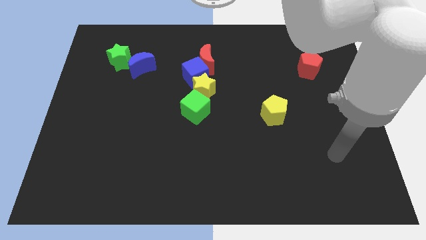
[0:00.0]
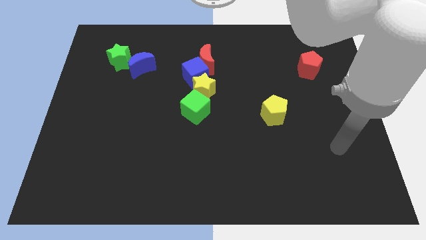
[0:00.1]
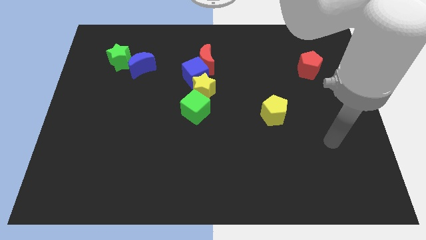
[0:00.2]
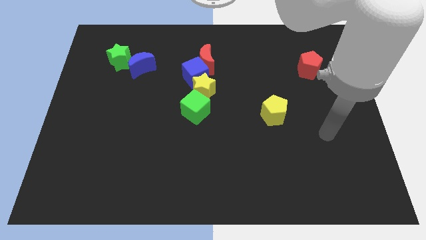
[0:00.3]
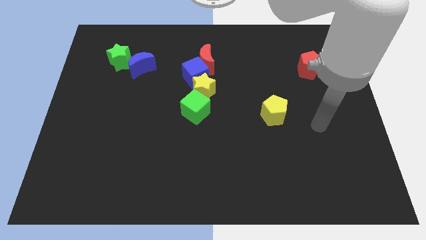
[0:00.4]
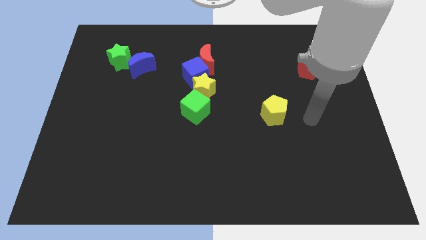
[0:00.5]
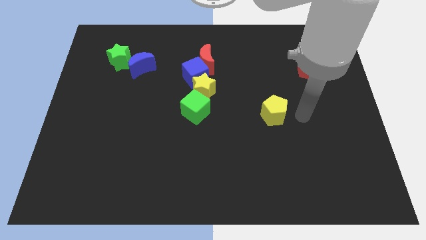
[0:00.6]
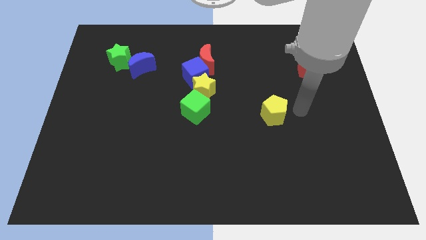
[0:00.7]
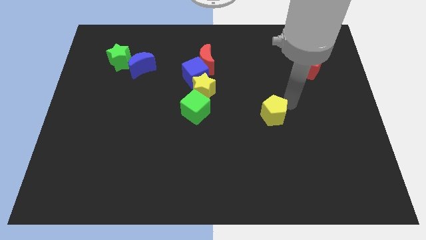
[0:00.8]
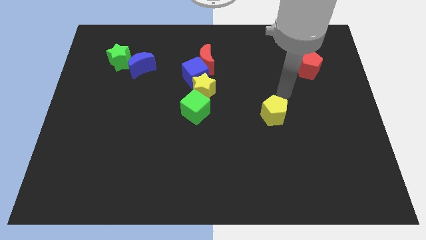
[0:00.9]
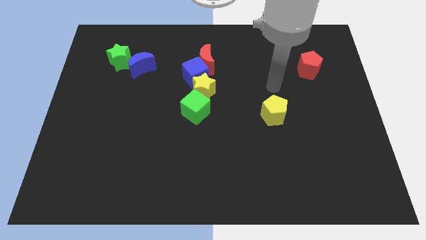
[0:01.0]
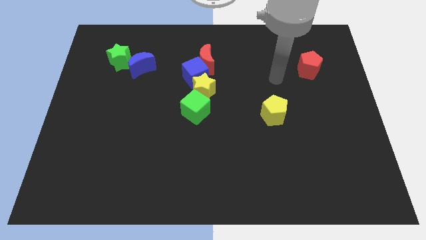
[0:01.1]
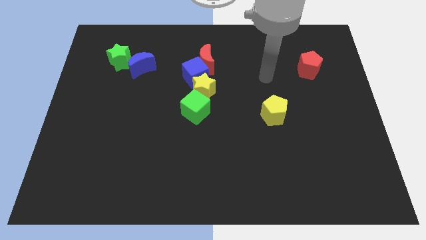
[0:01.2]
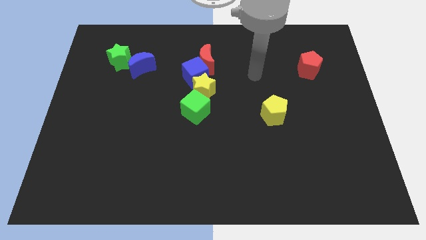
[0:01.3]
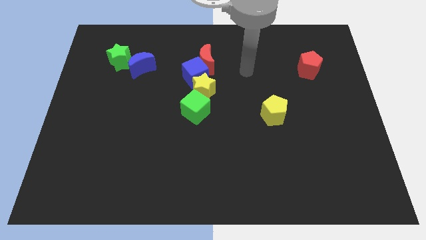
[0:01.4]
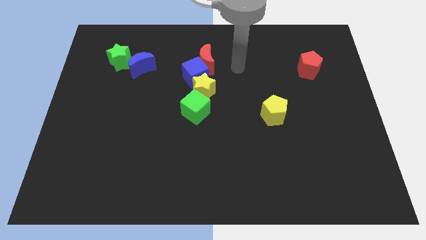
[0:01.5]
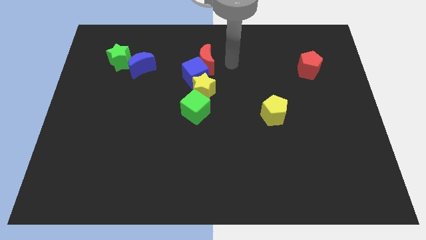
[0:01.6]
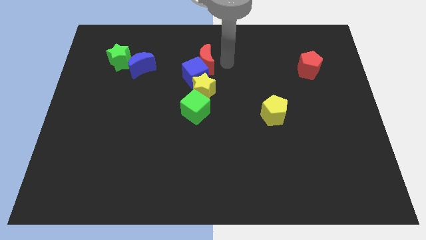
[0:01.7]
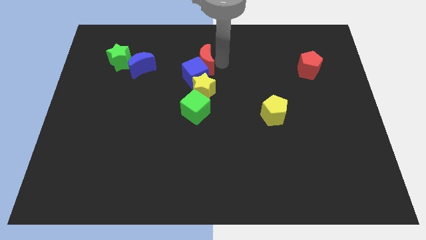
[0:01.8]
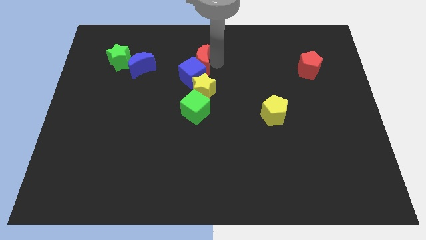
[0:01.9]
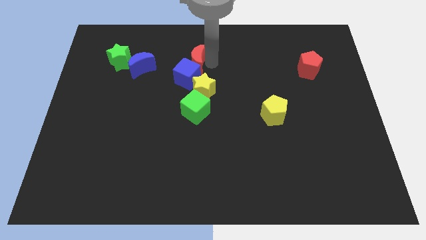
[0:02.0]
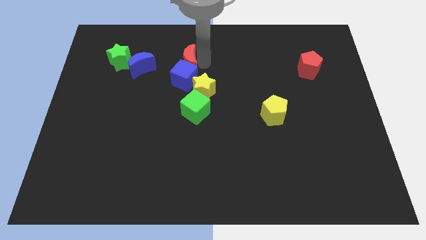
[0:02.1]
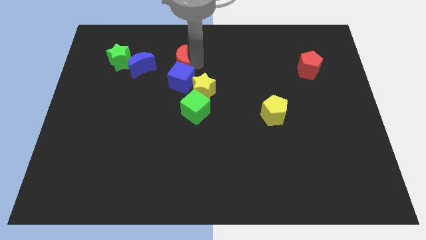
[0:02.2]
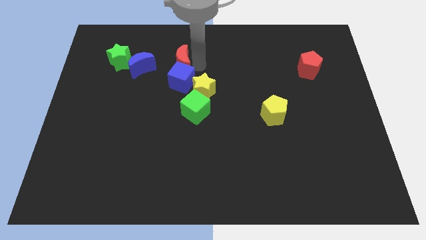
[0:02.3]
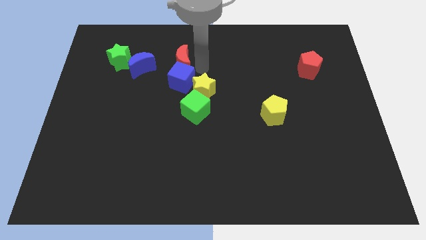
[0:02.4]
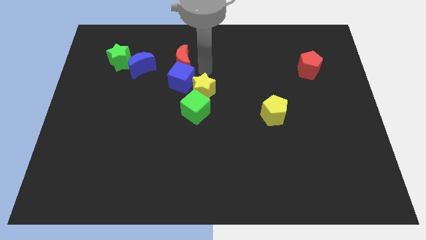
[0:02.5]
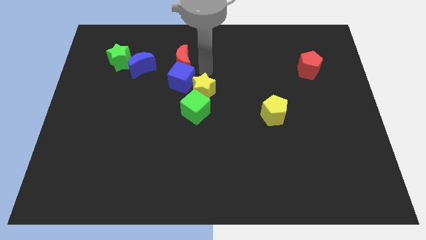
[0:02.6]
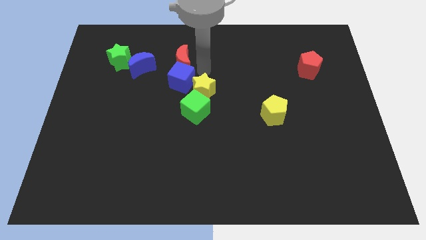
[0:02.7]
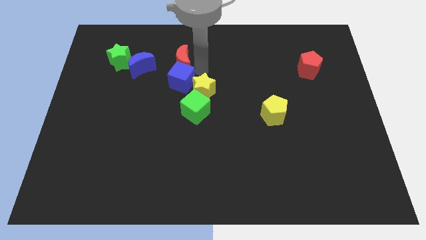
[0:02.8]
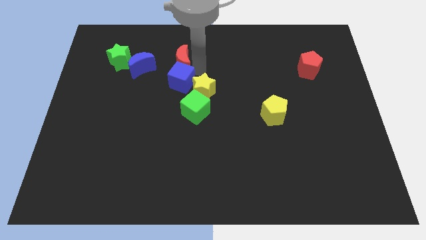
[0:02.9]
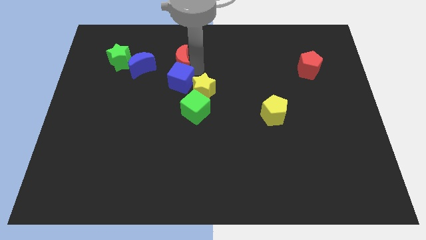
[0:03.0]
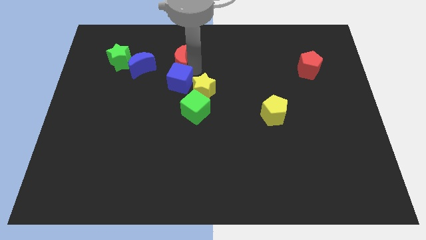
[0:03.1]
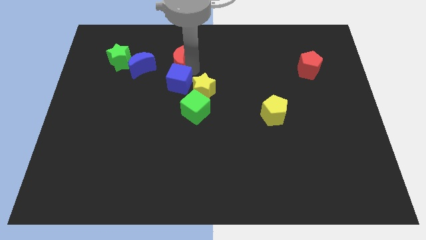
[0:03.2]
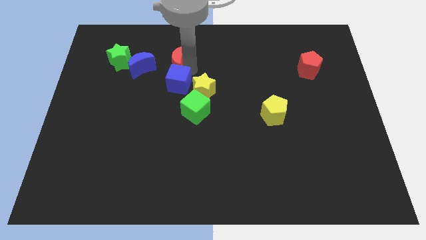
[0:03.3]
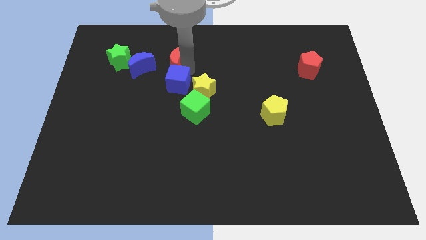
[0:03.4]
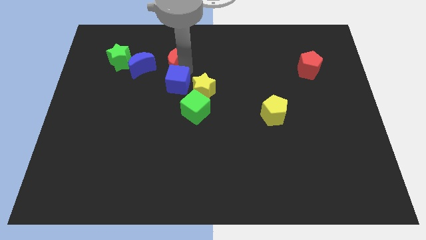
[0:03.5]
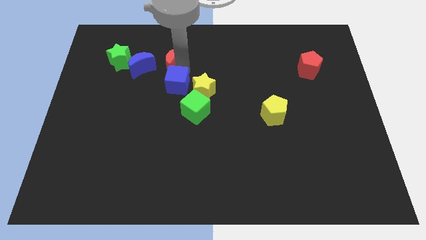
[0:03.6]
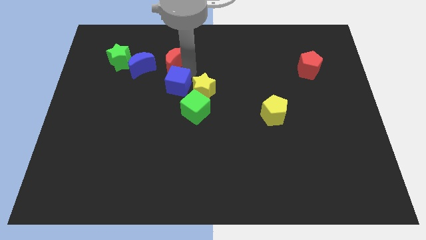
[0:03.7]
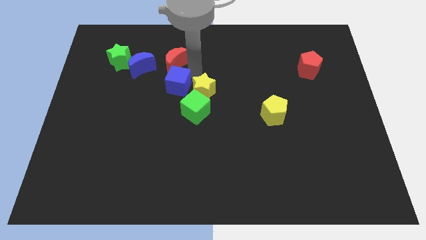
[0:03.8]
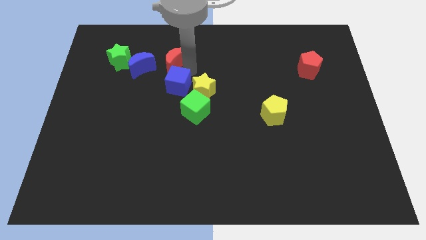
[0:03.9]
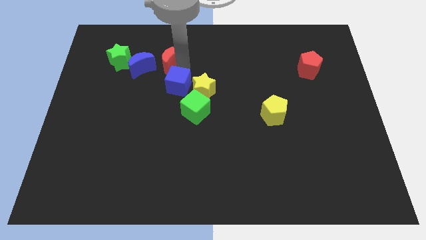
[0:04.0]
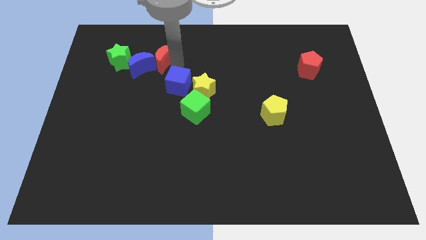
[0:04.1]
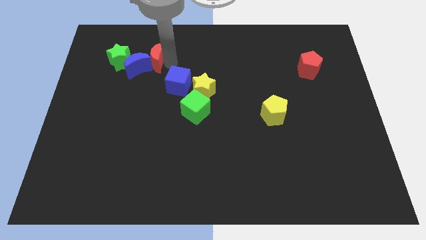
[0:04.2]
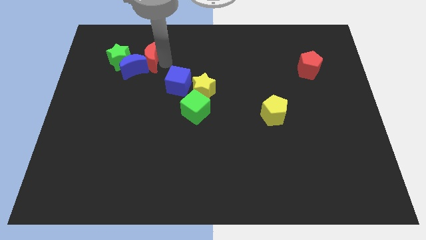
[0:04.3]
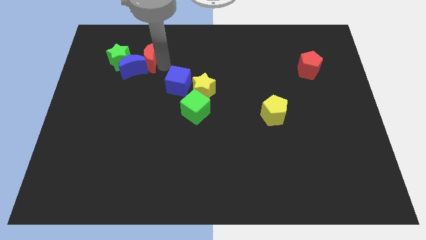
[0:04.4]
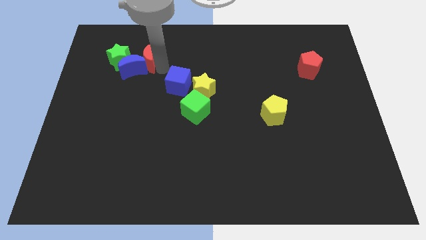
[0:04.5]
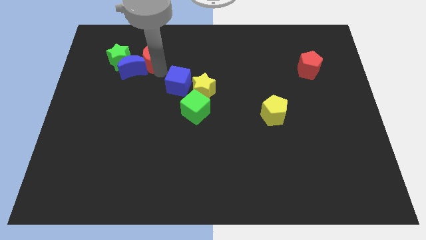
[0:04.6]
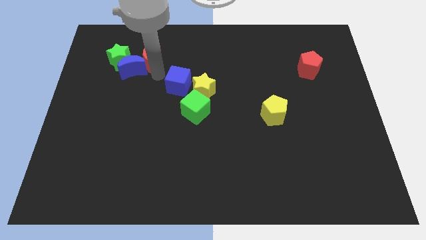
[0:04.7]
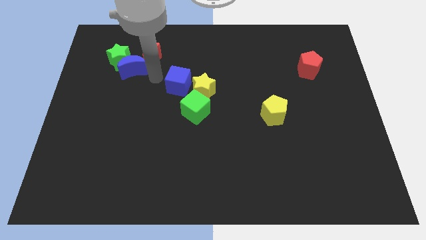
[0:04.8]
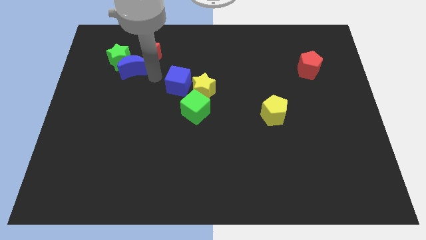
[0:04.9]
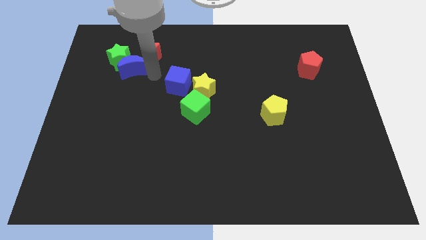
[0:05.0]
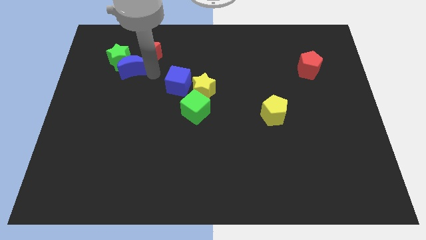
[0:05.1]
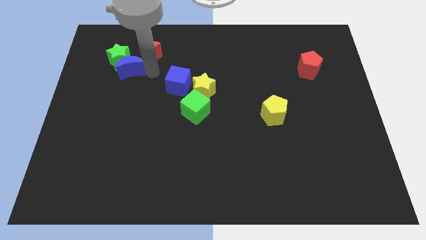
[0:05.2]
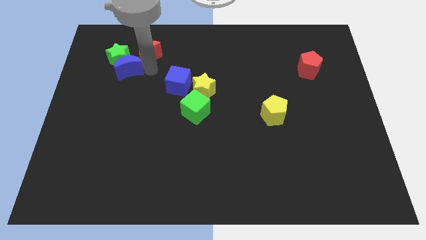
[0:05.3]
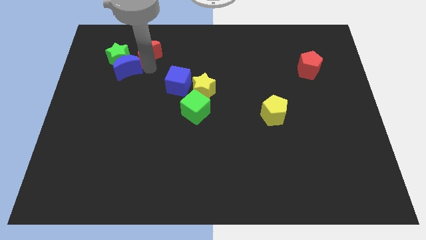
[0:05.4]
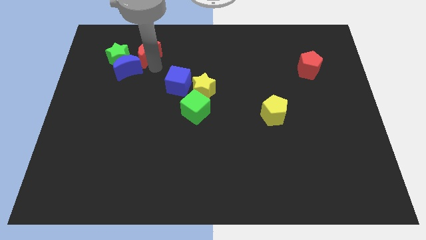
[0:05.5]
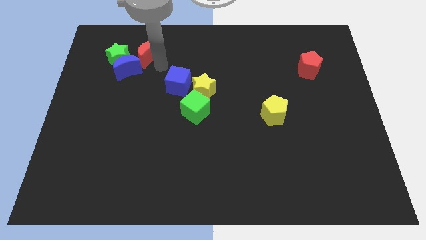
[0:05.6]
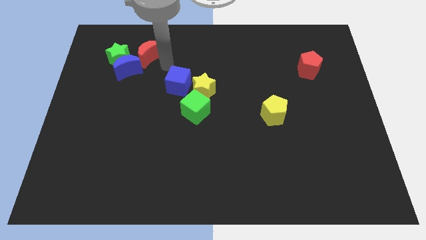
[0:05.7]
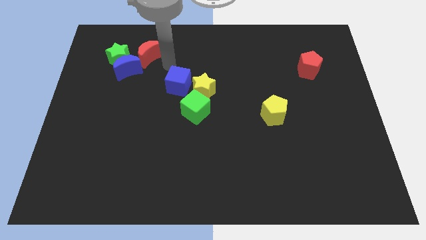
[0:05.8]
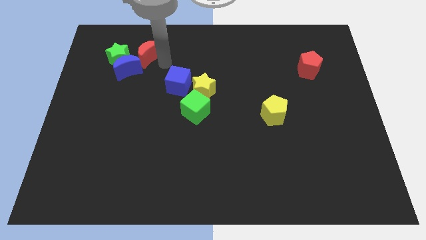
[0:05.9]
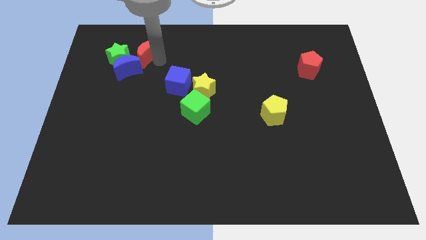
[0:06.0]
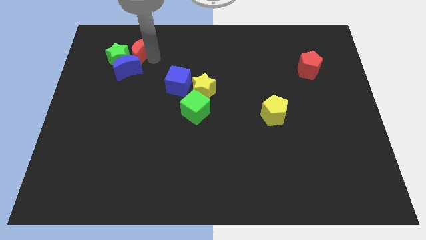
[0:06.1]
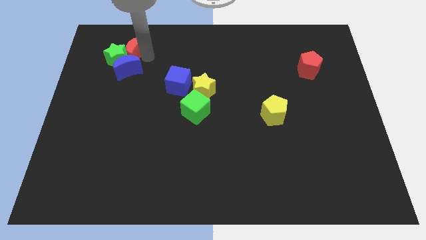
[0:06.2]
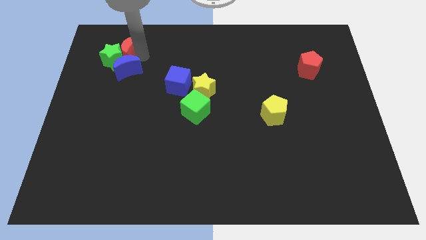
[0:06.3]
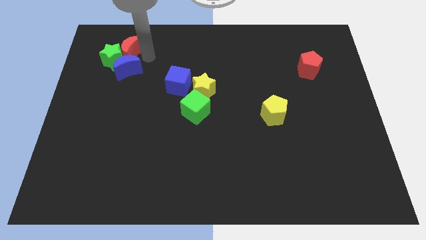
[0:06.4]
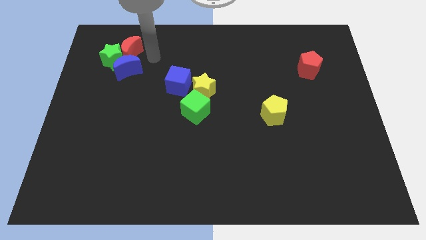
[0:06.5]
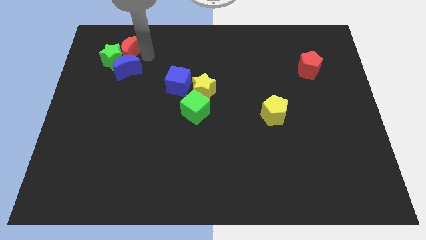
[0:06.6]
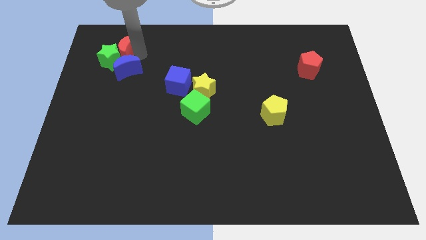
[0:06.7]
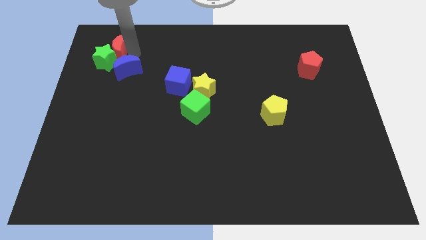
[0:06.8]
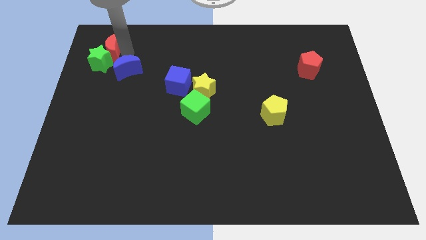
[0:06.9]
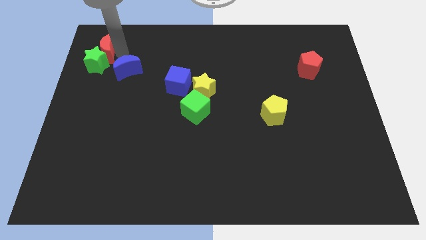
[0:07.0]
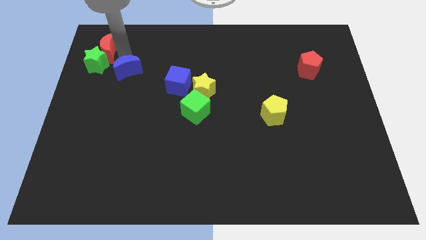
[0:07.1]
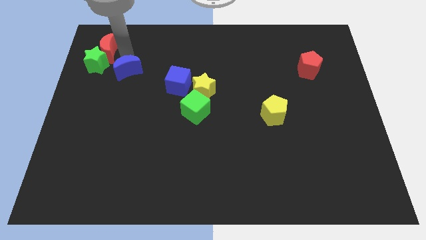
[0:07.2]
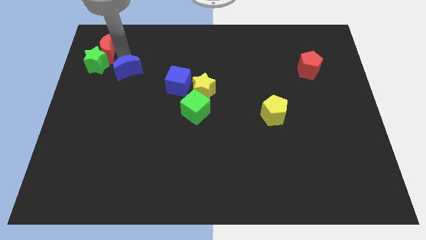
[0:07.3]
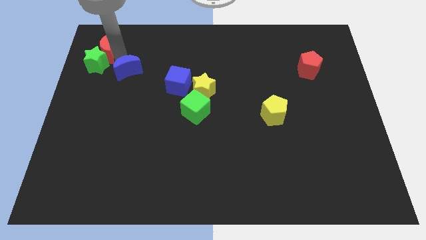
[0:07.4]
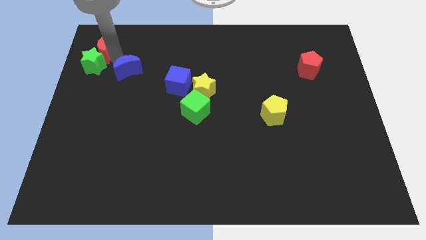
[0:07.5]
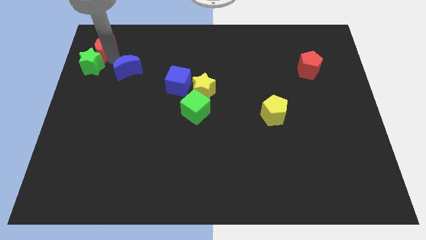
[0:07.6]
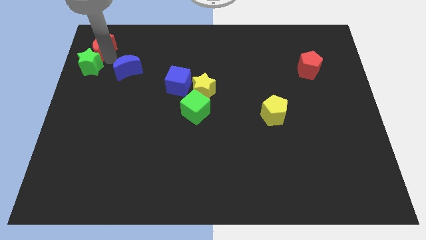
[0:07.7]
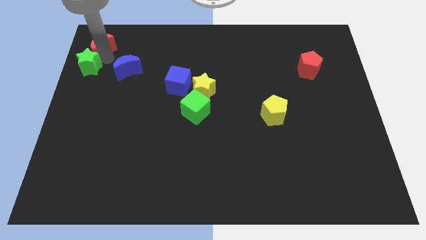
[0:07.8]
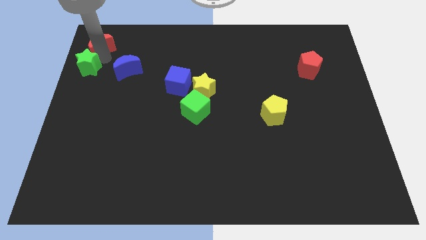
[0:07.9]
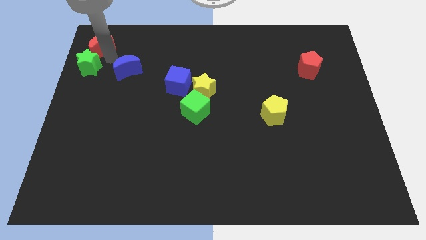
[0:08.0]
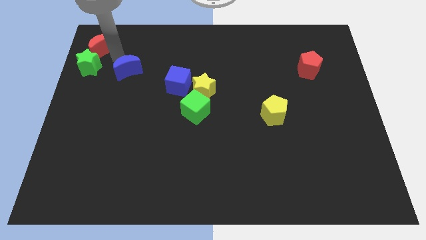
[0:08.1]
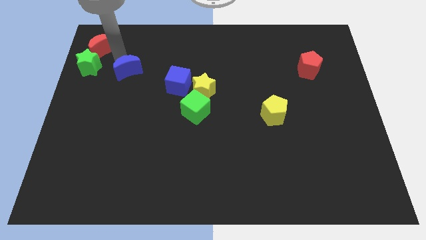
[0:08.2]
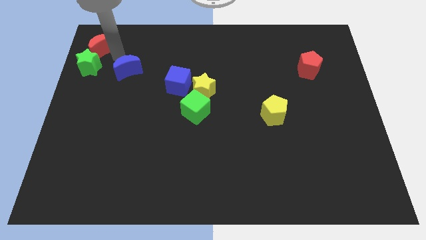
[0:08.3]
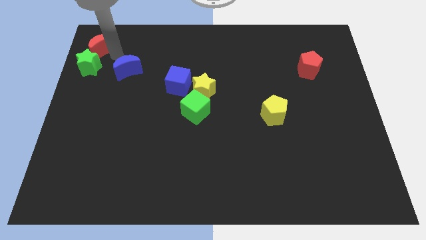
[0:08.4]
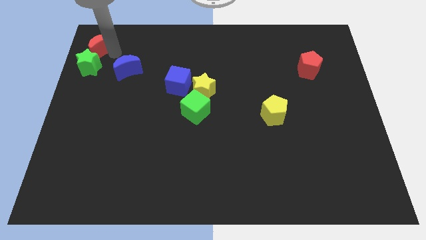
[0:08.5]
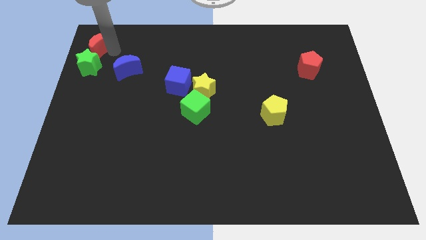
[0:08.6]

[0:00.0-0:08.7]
put the red moon to the top left
